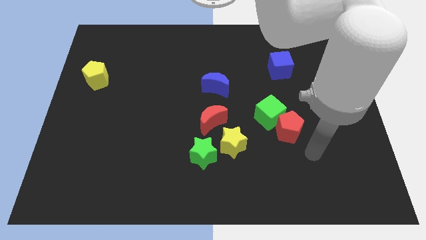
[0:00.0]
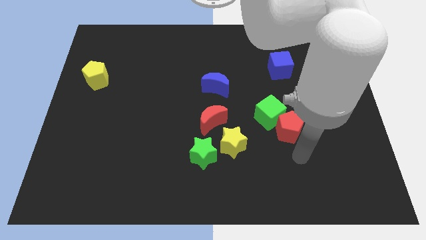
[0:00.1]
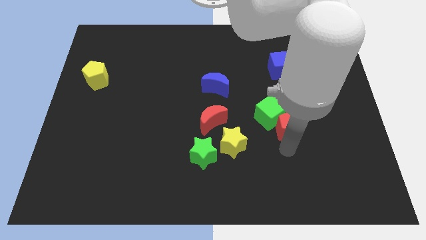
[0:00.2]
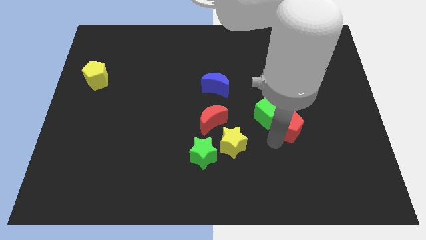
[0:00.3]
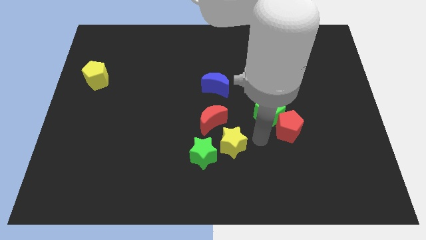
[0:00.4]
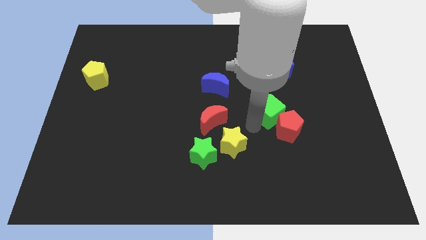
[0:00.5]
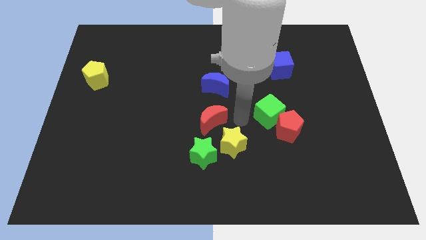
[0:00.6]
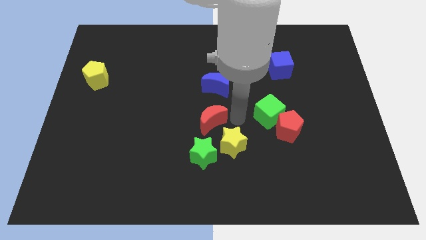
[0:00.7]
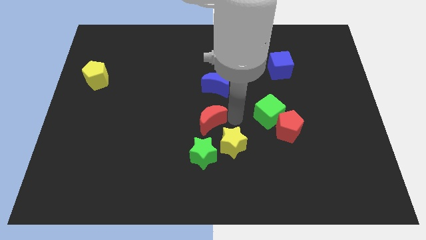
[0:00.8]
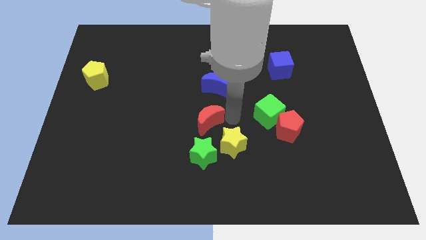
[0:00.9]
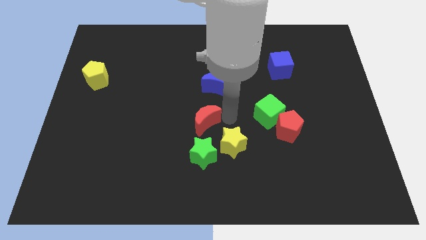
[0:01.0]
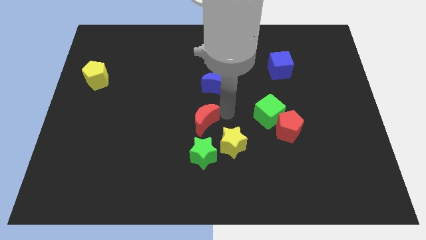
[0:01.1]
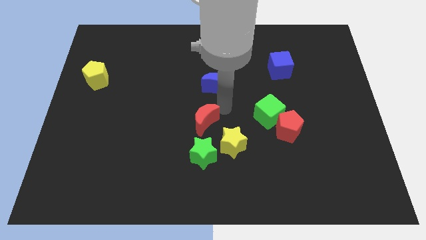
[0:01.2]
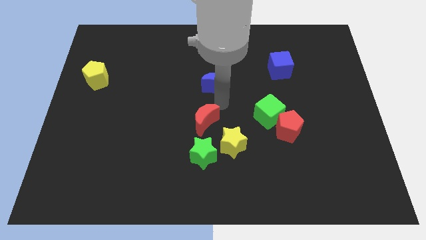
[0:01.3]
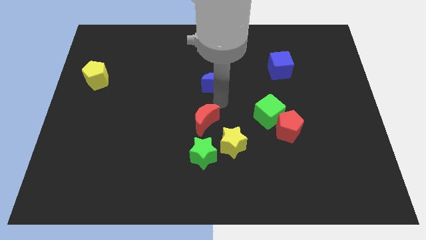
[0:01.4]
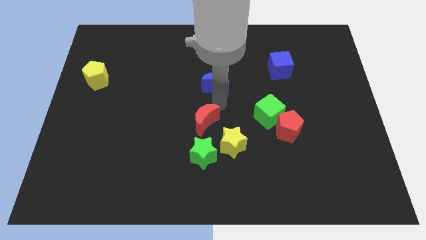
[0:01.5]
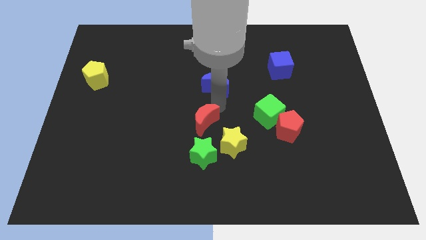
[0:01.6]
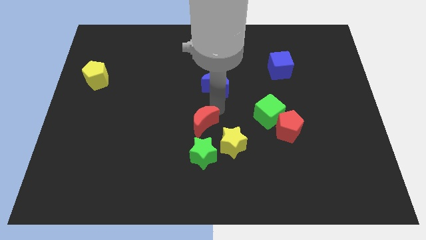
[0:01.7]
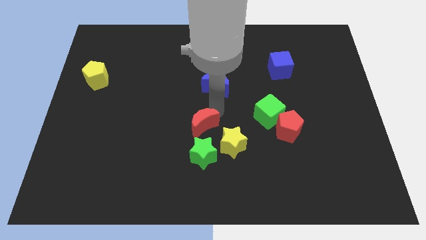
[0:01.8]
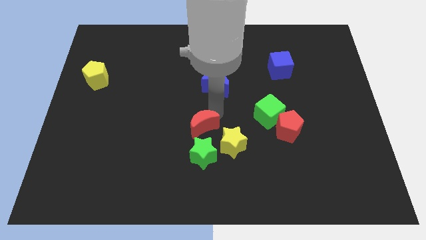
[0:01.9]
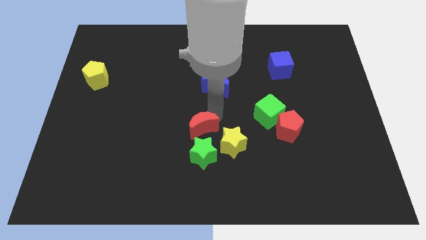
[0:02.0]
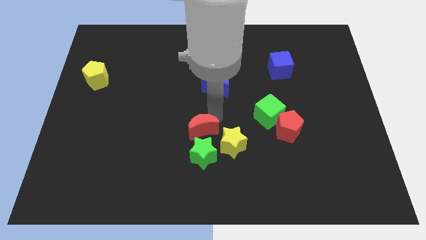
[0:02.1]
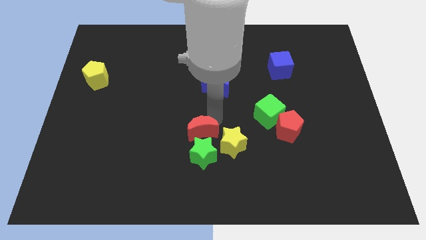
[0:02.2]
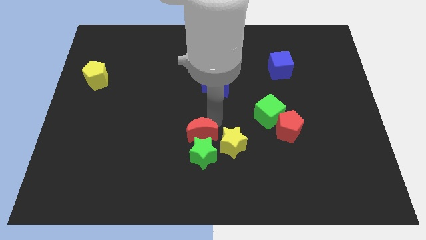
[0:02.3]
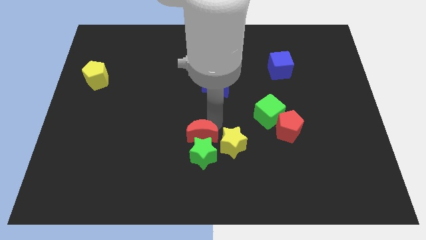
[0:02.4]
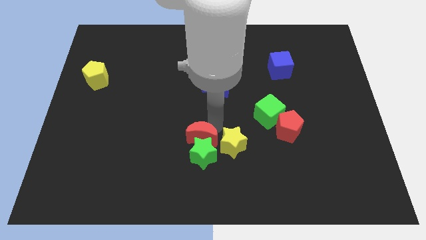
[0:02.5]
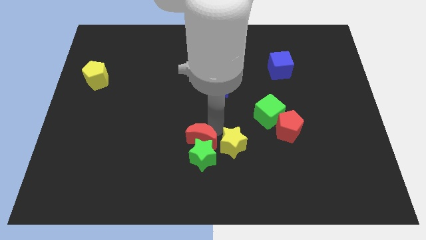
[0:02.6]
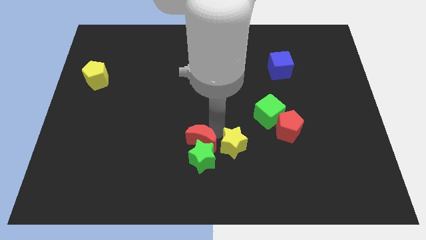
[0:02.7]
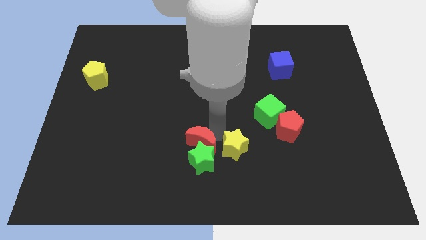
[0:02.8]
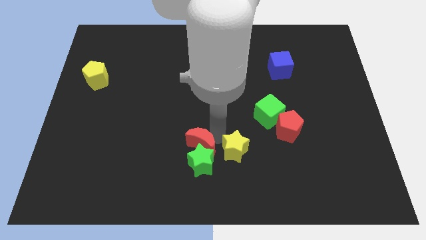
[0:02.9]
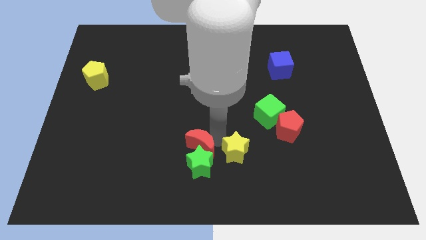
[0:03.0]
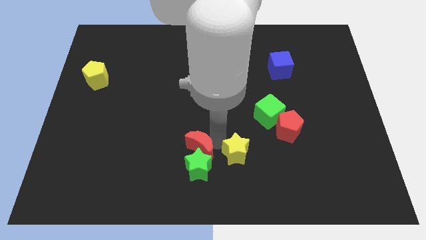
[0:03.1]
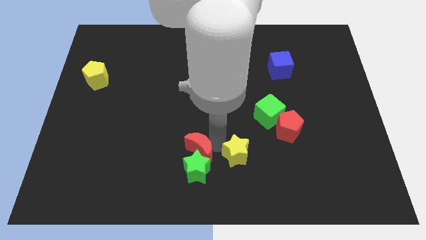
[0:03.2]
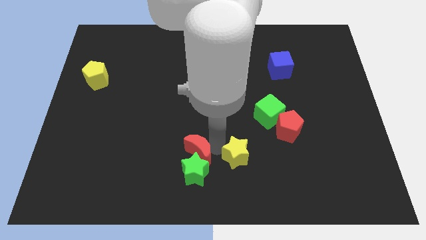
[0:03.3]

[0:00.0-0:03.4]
move the red moon a little down and to the left diagonally

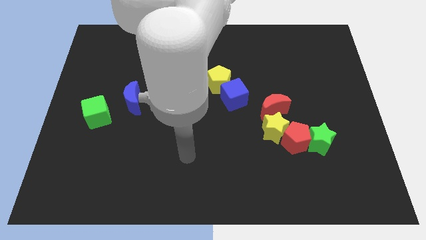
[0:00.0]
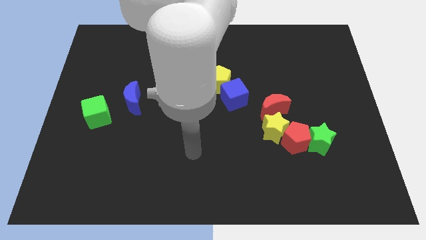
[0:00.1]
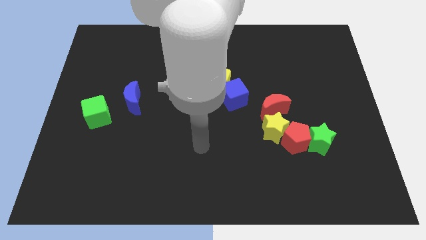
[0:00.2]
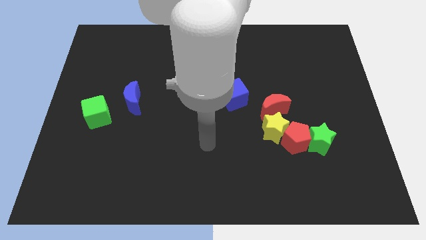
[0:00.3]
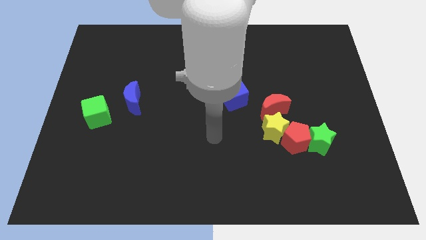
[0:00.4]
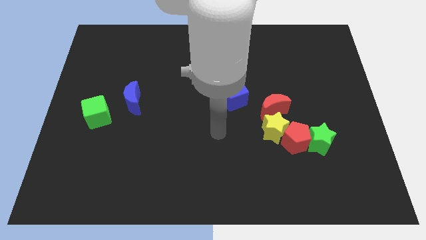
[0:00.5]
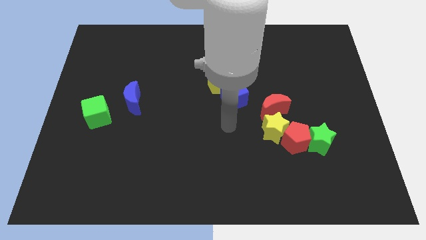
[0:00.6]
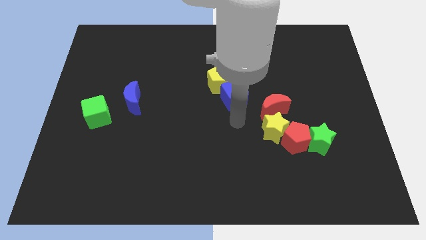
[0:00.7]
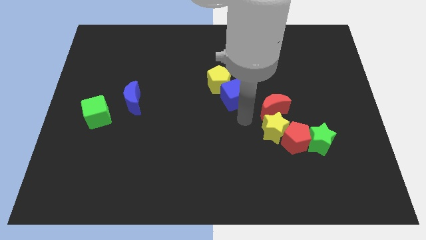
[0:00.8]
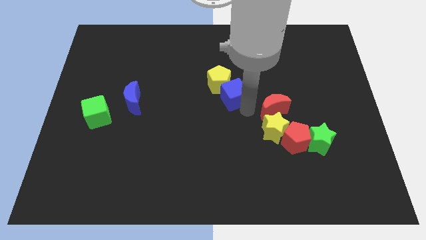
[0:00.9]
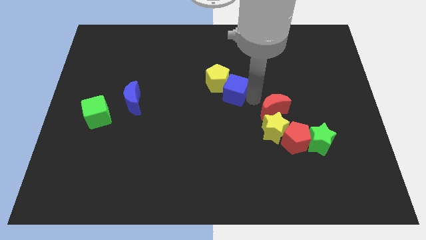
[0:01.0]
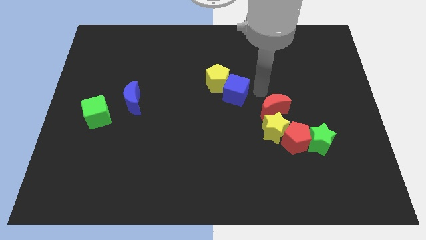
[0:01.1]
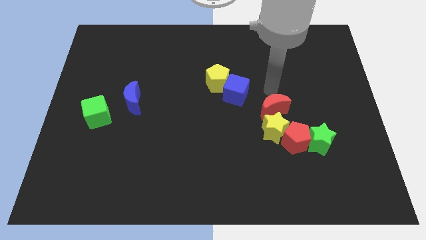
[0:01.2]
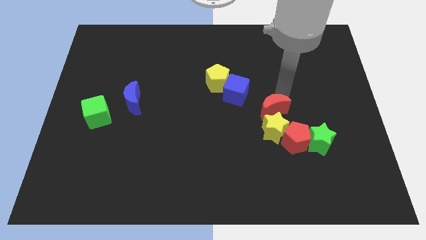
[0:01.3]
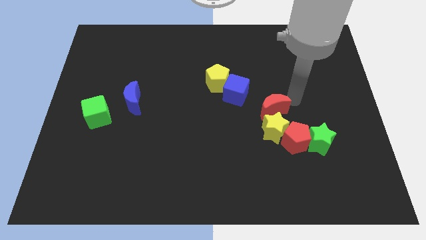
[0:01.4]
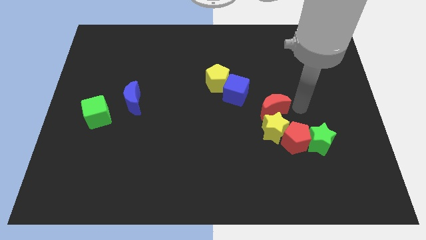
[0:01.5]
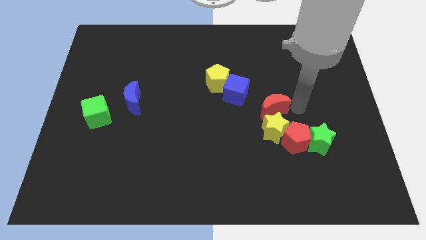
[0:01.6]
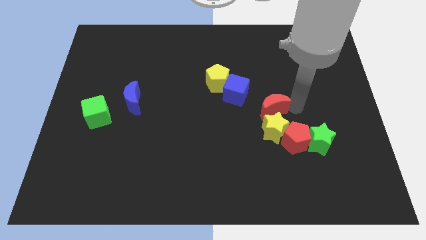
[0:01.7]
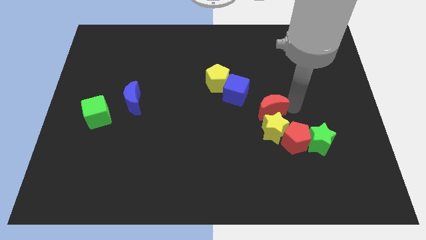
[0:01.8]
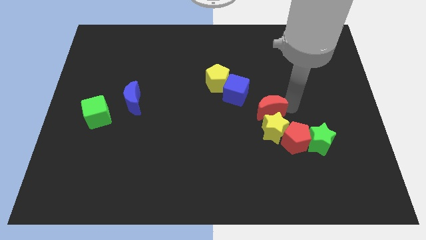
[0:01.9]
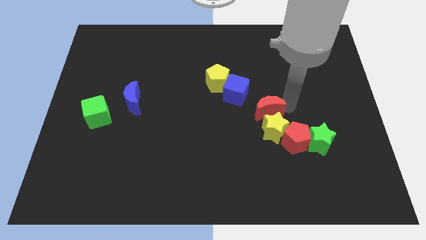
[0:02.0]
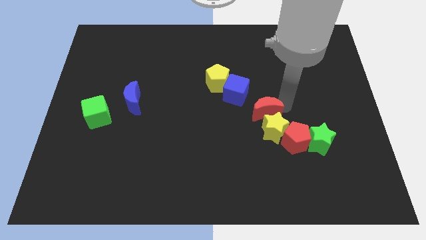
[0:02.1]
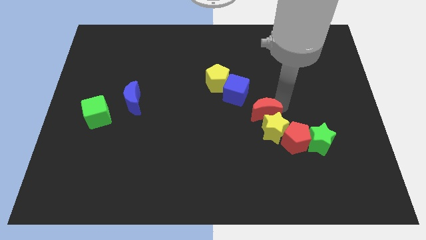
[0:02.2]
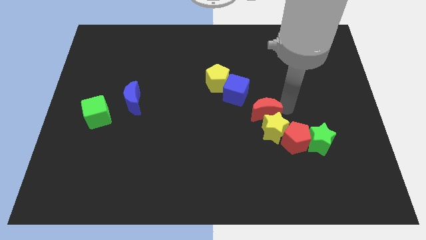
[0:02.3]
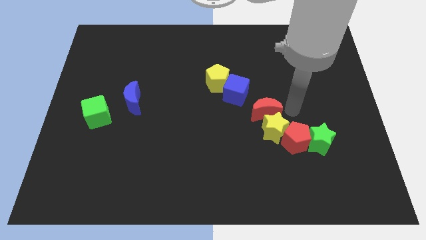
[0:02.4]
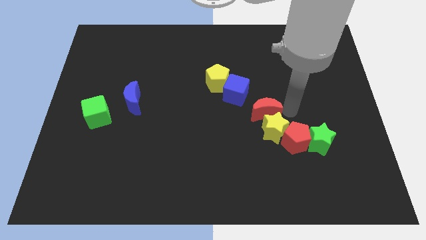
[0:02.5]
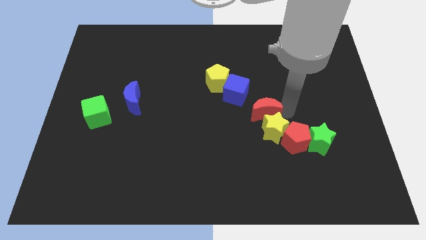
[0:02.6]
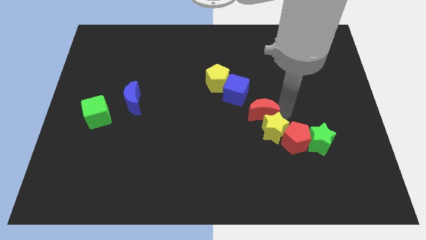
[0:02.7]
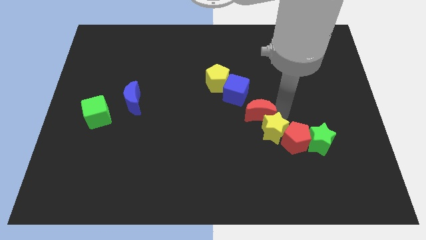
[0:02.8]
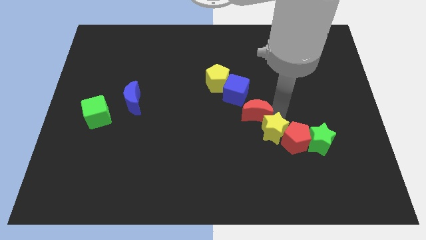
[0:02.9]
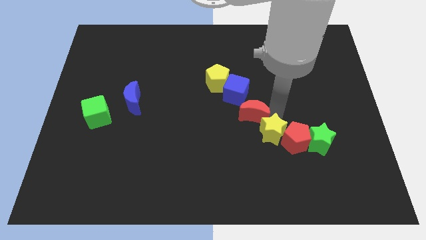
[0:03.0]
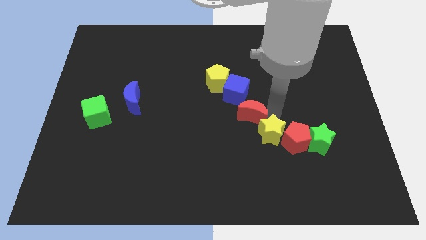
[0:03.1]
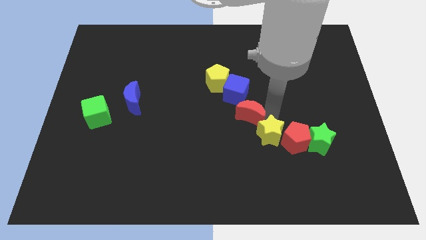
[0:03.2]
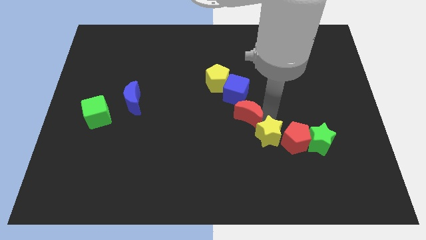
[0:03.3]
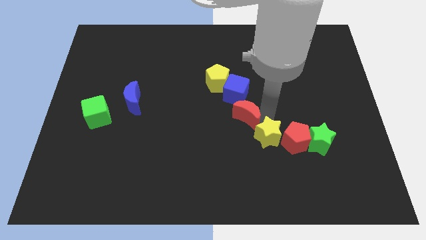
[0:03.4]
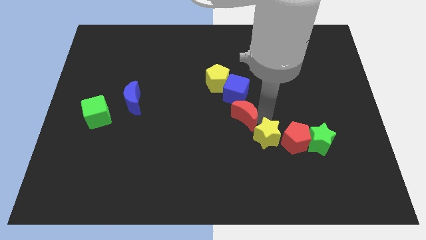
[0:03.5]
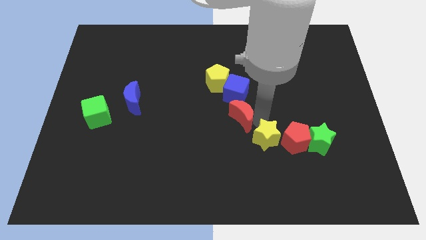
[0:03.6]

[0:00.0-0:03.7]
slide the red moon a little to the left

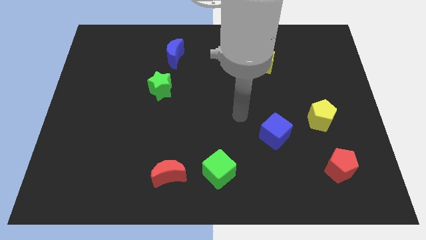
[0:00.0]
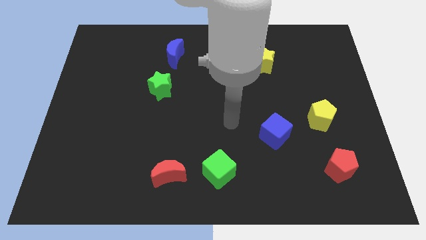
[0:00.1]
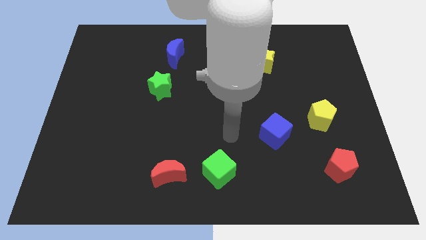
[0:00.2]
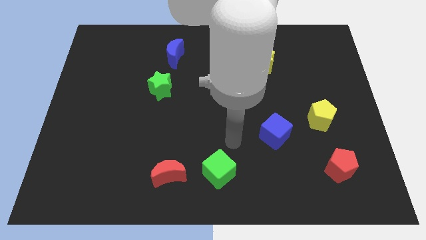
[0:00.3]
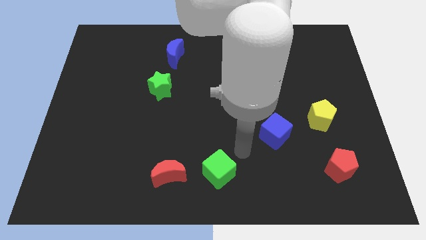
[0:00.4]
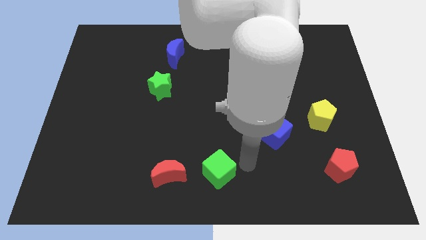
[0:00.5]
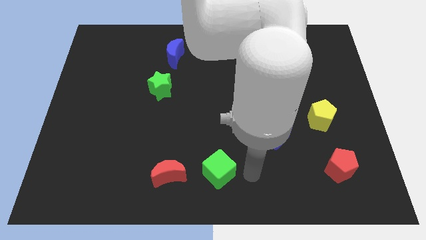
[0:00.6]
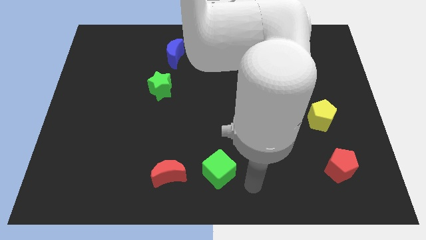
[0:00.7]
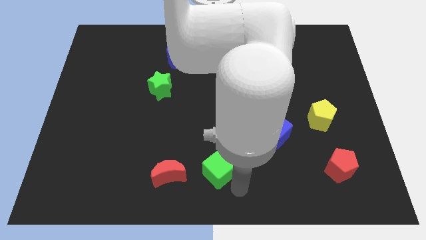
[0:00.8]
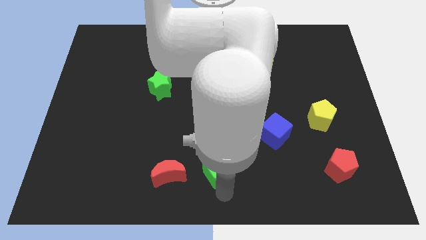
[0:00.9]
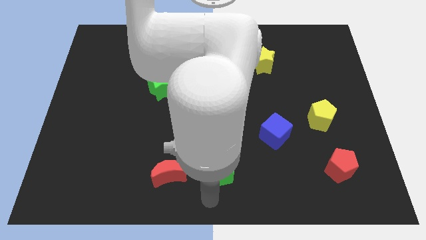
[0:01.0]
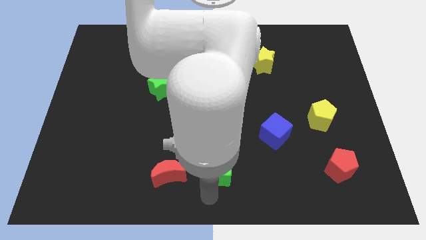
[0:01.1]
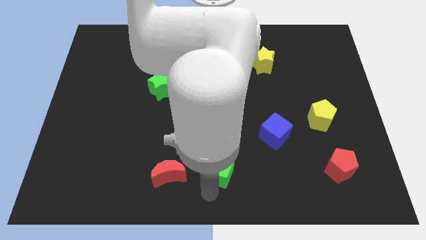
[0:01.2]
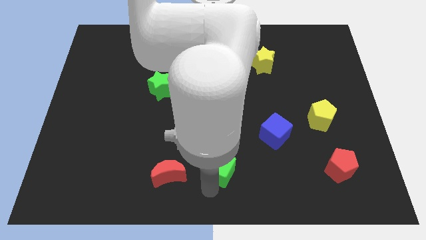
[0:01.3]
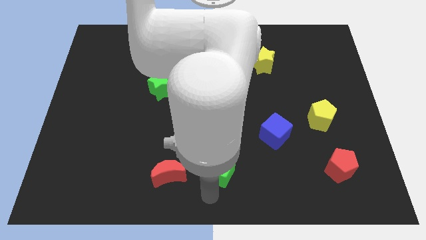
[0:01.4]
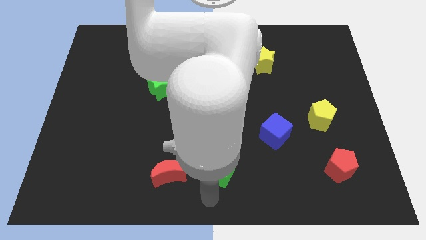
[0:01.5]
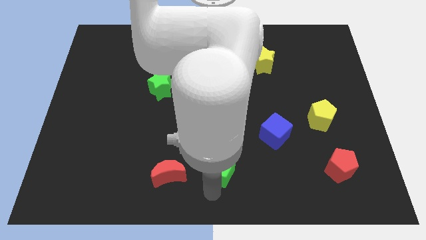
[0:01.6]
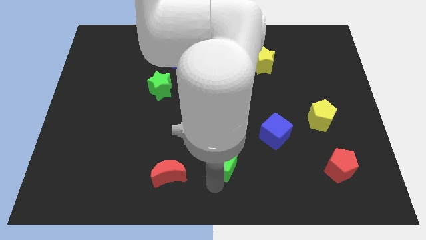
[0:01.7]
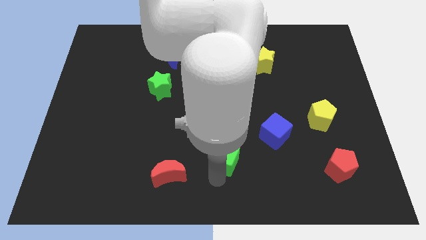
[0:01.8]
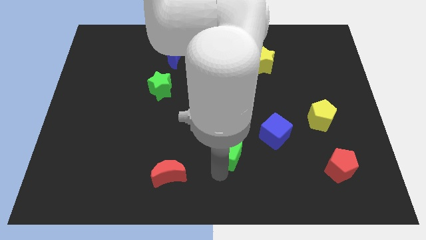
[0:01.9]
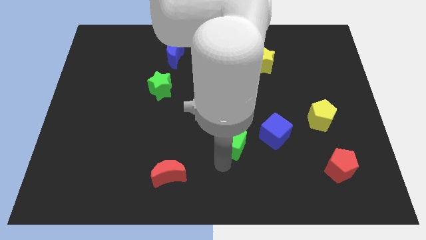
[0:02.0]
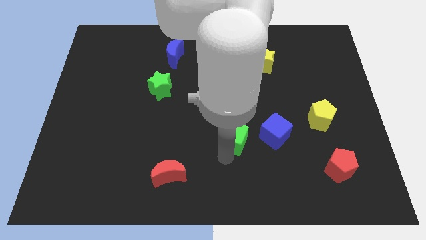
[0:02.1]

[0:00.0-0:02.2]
slightly slide the green cube diagonally upwards and to the right
